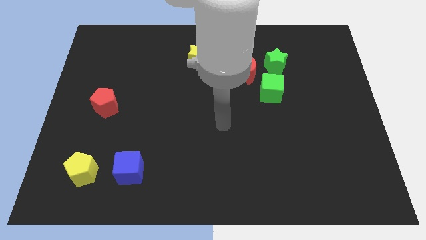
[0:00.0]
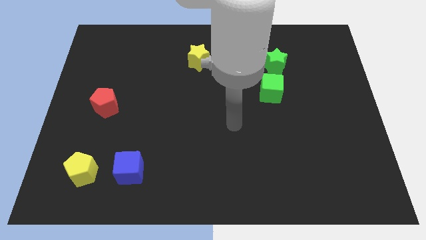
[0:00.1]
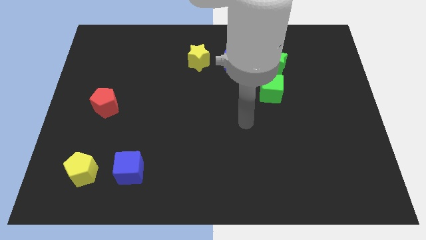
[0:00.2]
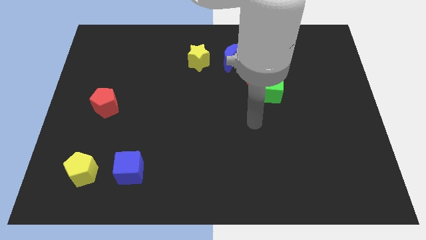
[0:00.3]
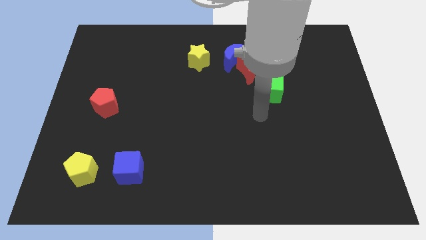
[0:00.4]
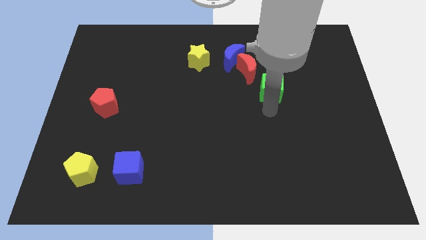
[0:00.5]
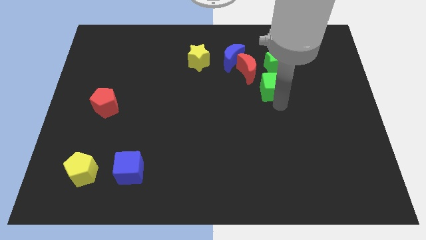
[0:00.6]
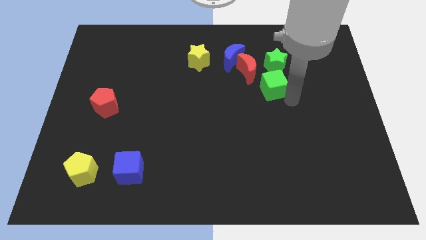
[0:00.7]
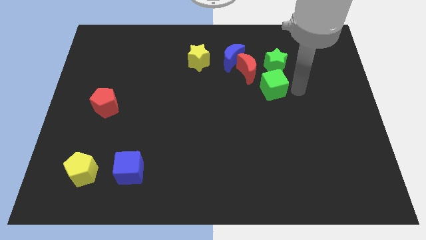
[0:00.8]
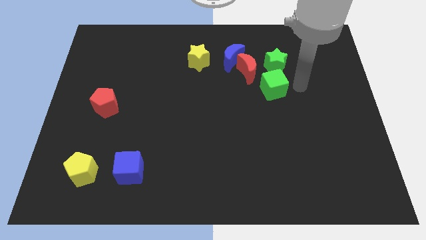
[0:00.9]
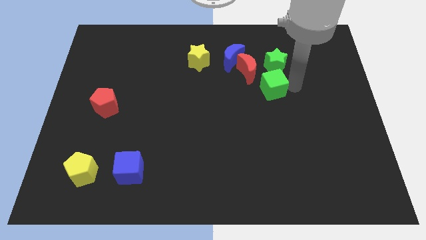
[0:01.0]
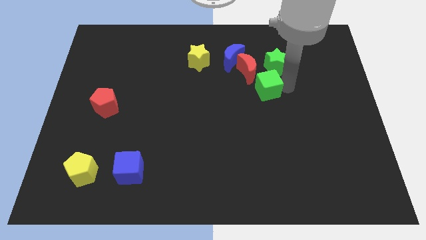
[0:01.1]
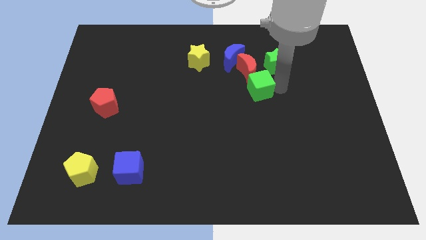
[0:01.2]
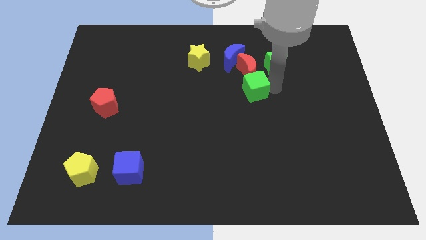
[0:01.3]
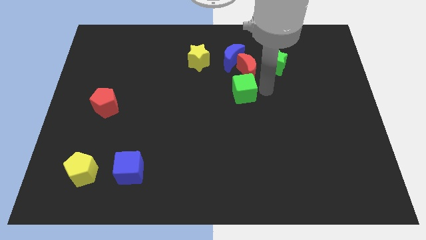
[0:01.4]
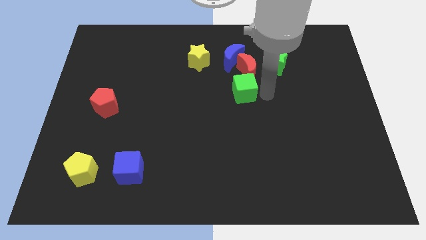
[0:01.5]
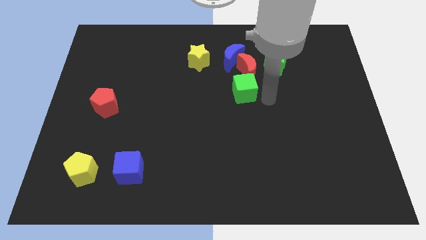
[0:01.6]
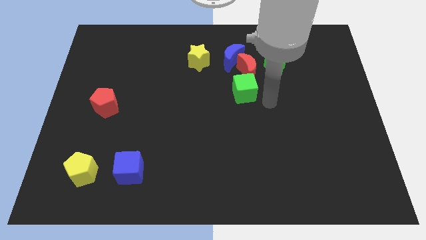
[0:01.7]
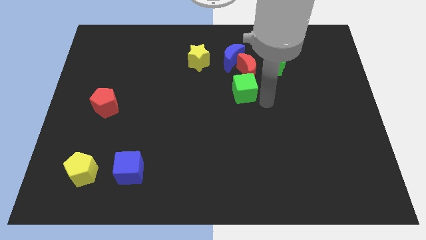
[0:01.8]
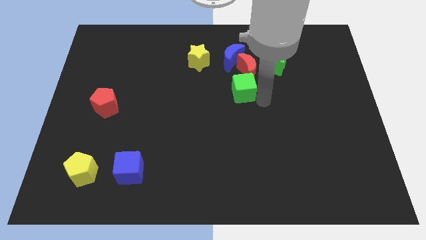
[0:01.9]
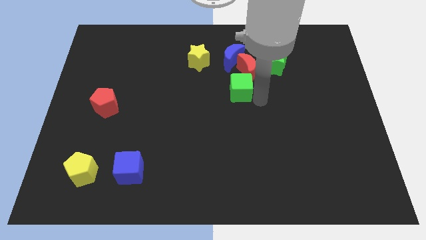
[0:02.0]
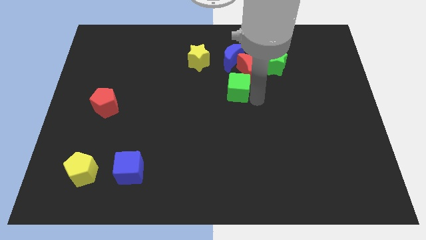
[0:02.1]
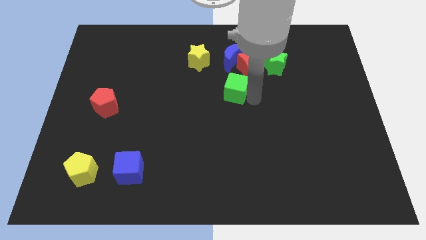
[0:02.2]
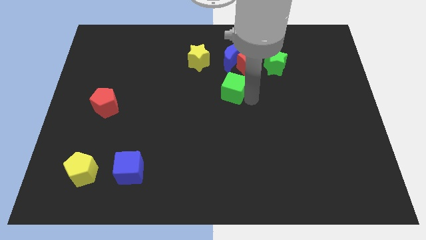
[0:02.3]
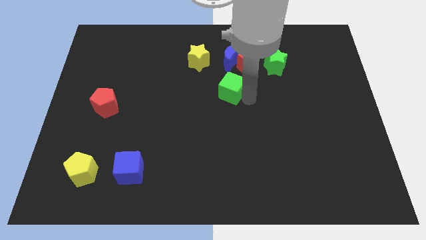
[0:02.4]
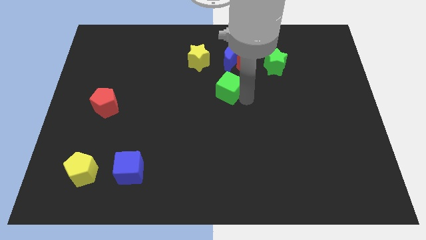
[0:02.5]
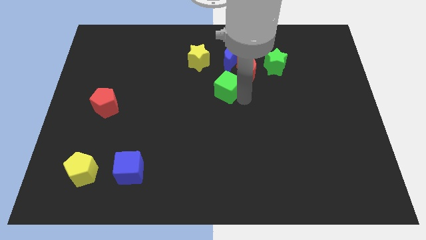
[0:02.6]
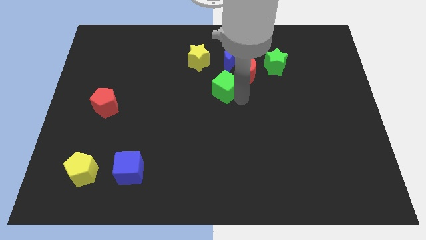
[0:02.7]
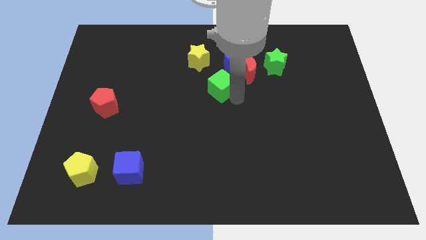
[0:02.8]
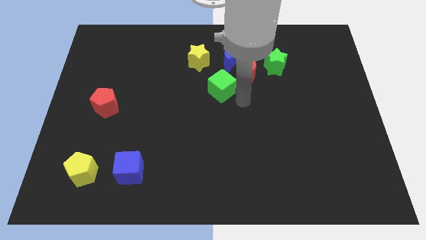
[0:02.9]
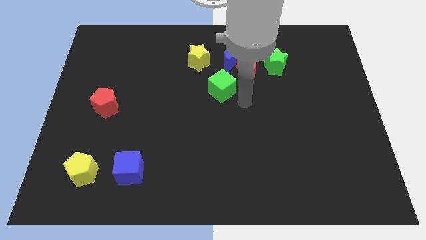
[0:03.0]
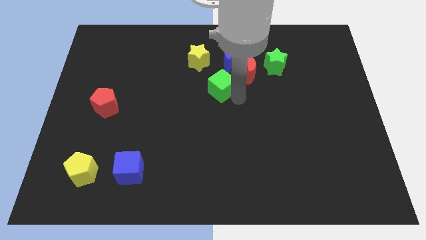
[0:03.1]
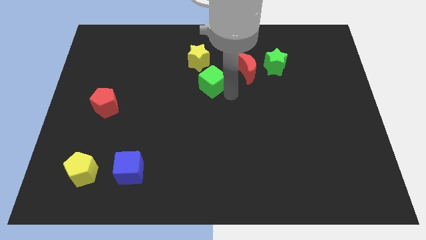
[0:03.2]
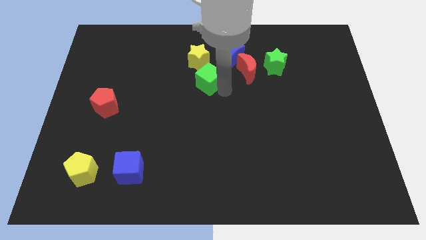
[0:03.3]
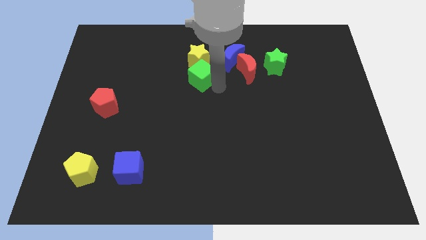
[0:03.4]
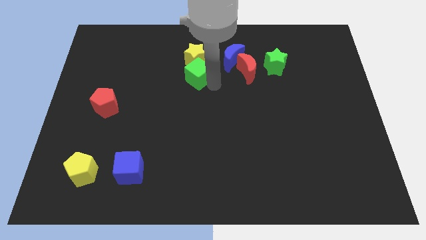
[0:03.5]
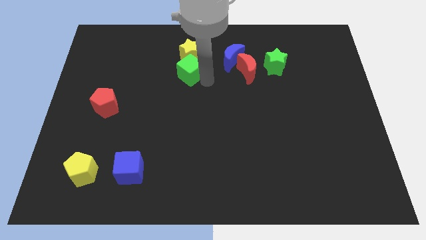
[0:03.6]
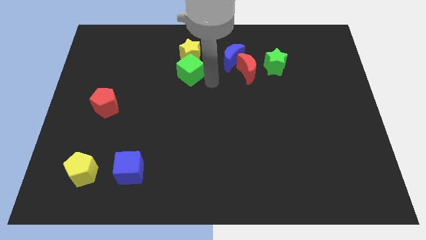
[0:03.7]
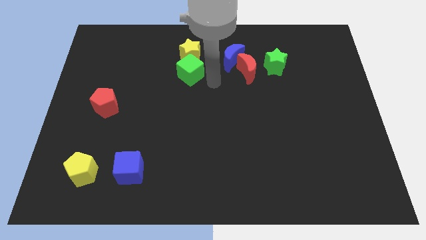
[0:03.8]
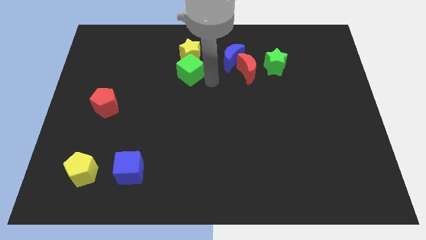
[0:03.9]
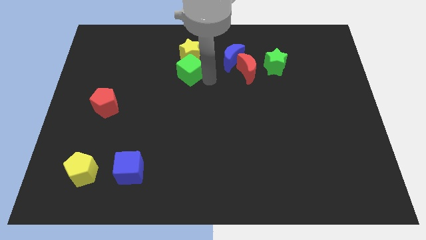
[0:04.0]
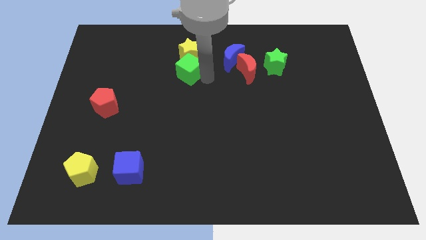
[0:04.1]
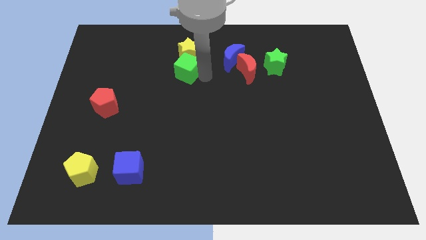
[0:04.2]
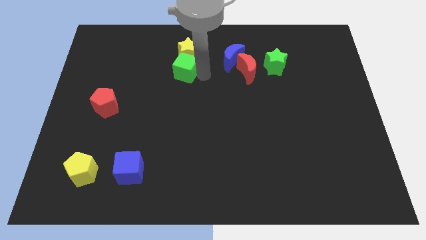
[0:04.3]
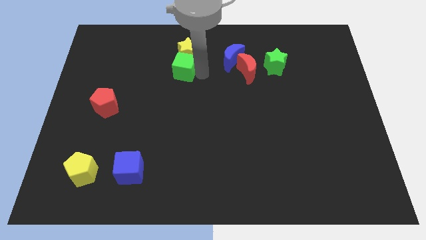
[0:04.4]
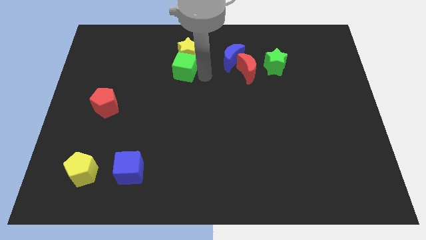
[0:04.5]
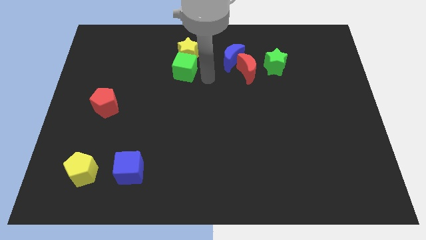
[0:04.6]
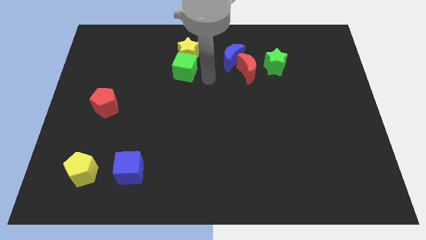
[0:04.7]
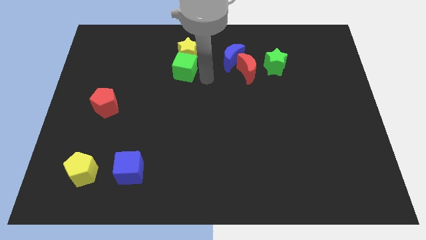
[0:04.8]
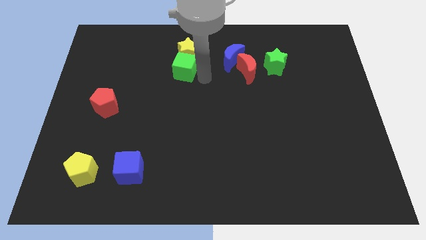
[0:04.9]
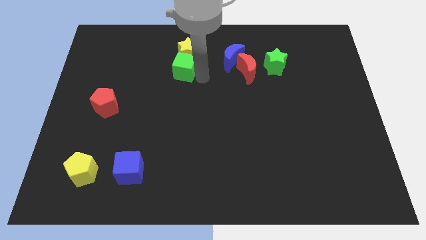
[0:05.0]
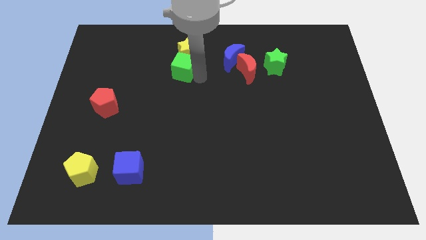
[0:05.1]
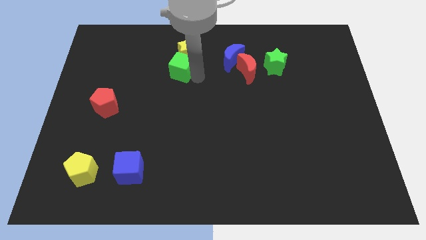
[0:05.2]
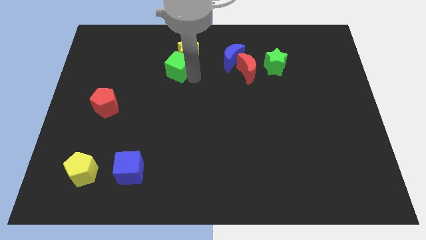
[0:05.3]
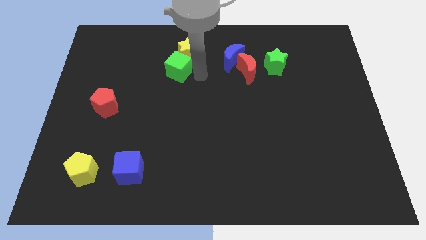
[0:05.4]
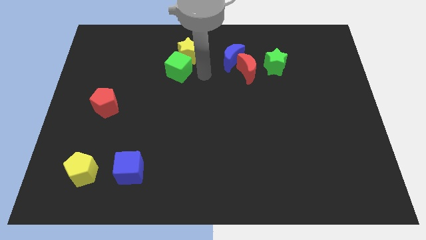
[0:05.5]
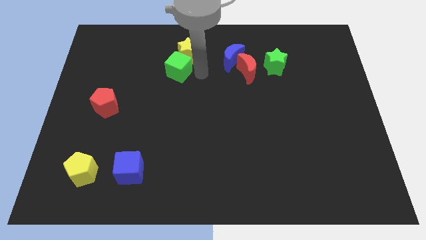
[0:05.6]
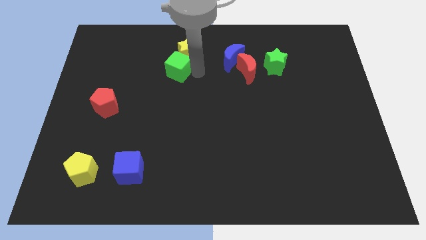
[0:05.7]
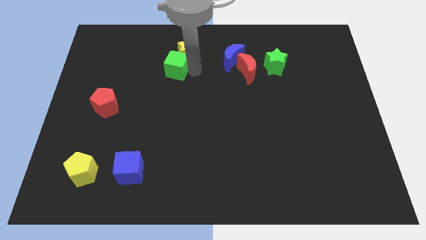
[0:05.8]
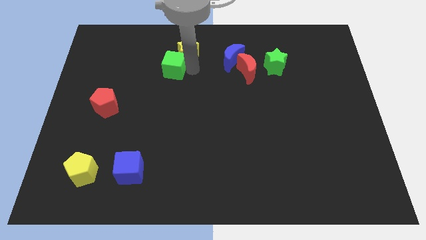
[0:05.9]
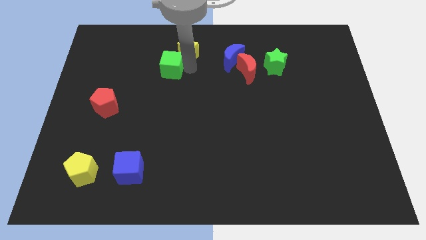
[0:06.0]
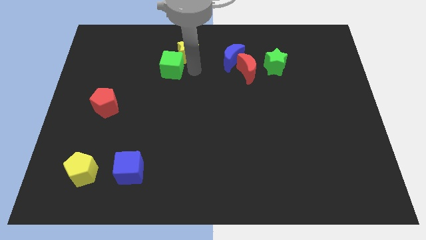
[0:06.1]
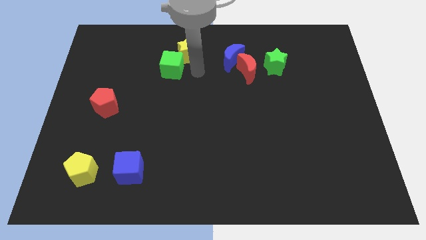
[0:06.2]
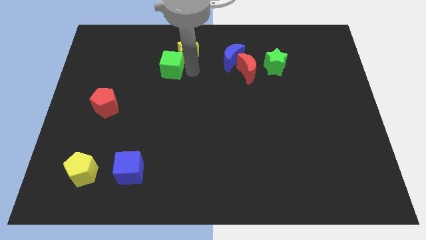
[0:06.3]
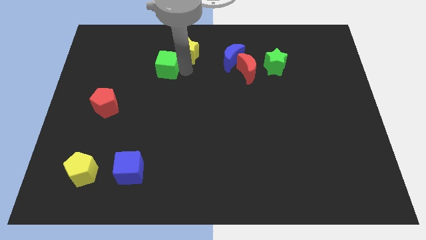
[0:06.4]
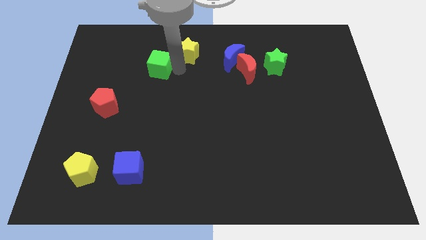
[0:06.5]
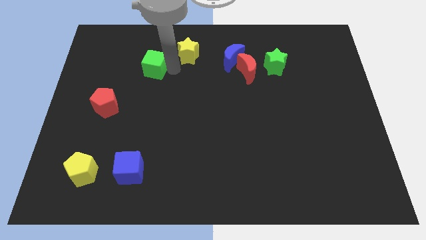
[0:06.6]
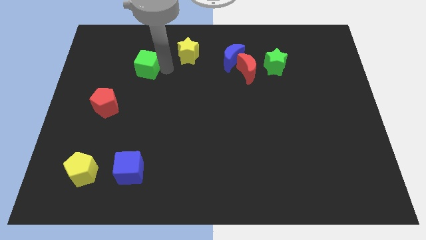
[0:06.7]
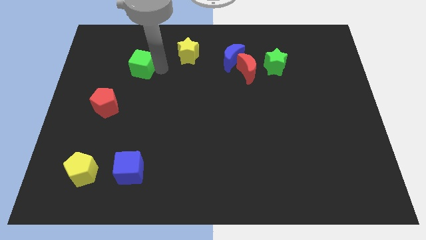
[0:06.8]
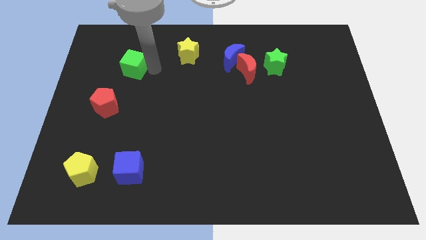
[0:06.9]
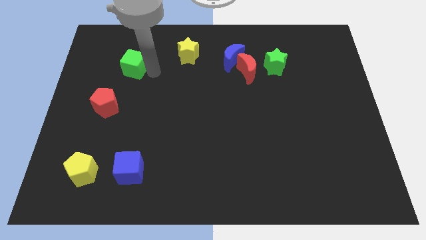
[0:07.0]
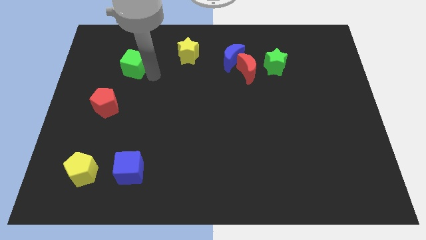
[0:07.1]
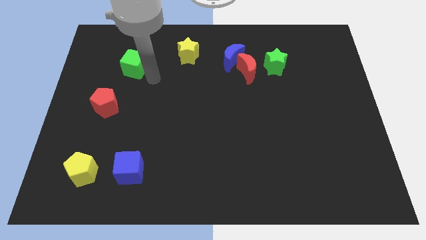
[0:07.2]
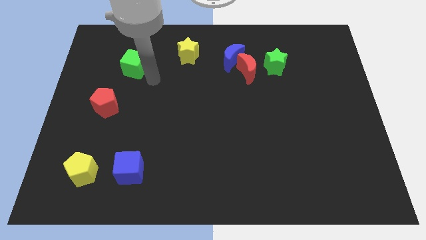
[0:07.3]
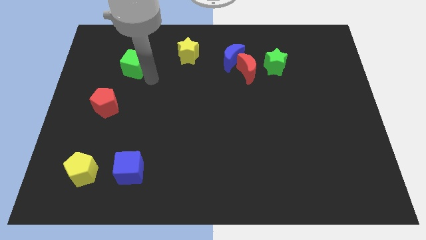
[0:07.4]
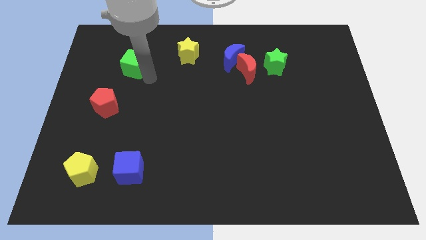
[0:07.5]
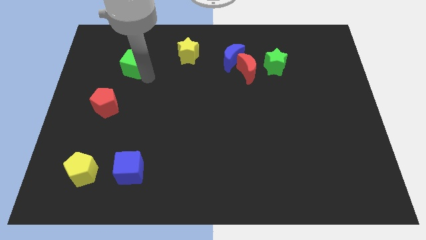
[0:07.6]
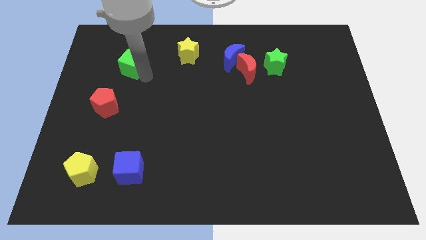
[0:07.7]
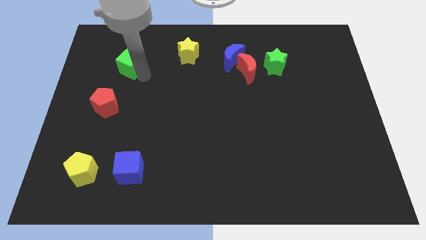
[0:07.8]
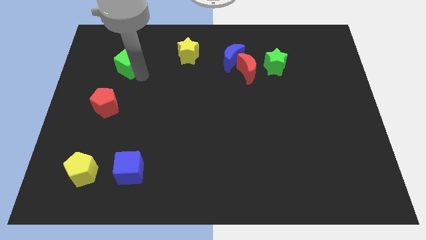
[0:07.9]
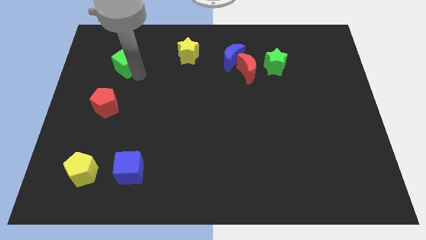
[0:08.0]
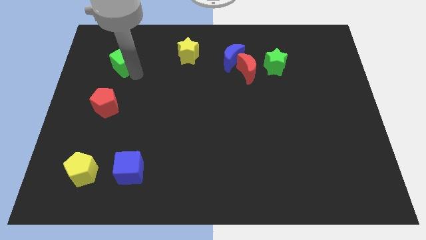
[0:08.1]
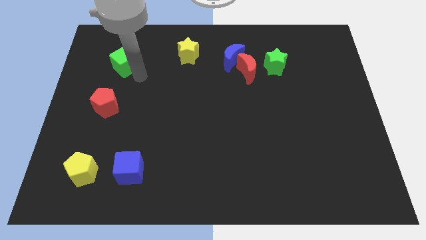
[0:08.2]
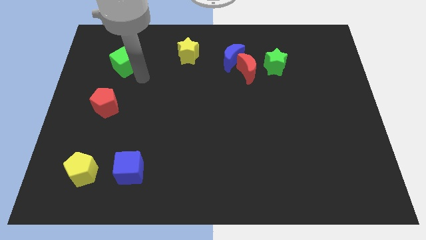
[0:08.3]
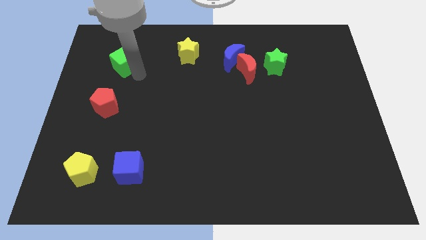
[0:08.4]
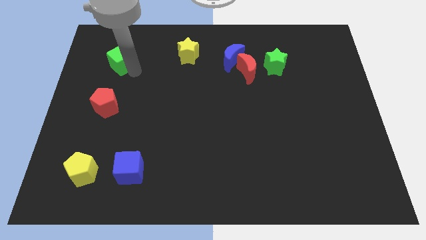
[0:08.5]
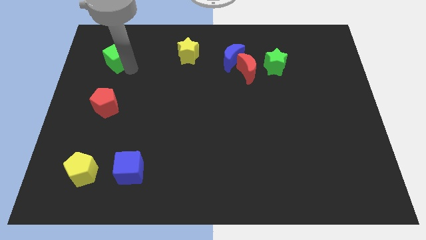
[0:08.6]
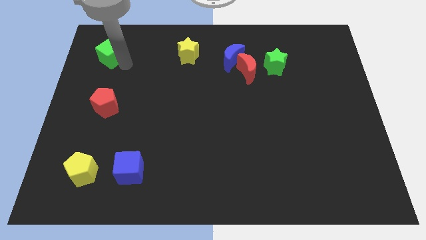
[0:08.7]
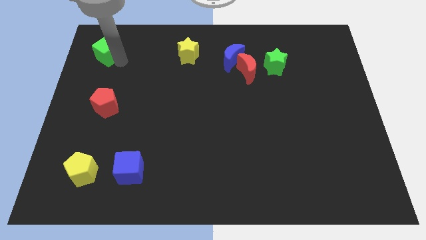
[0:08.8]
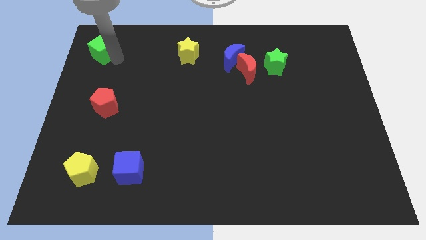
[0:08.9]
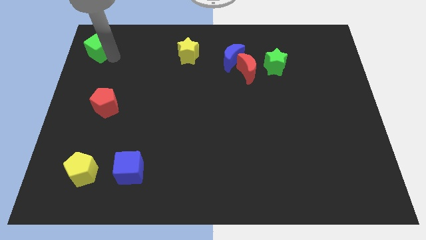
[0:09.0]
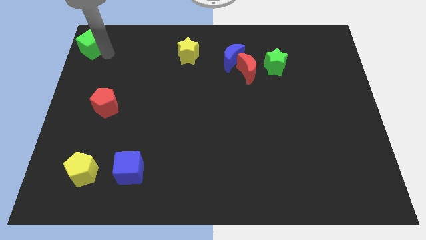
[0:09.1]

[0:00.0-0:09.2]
put the green cube to the top left corner
